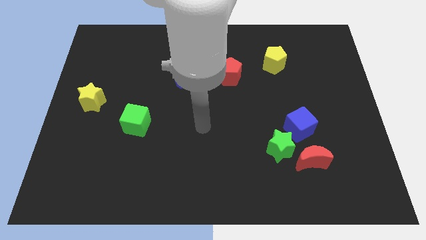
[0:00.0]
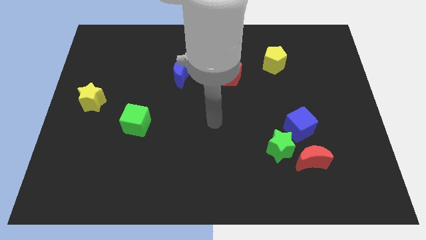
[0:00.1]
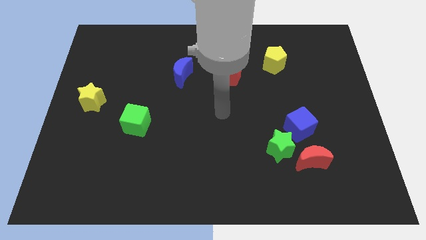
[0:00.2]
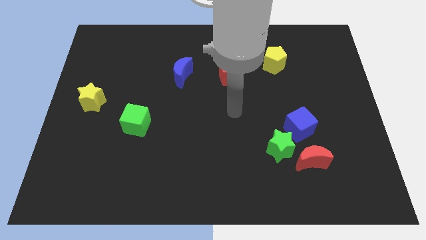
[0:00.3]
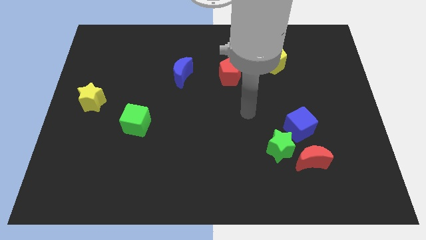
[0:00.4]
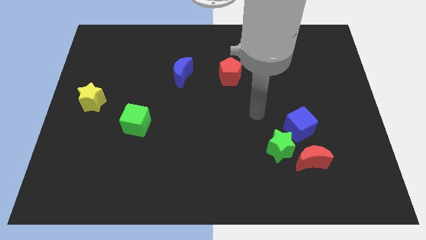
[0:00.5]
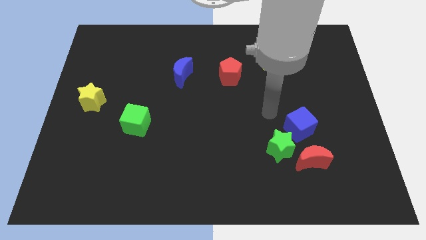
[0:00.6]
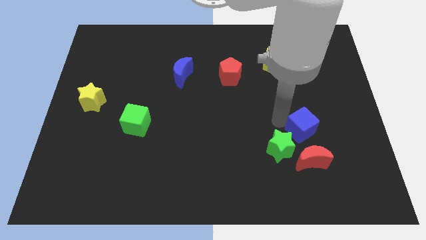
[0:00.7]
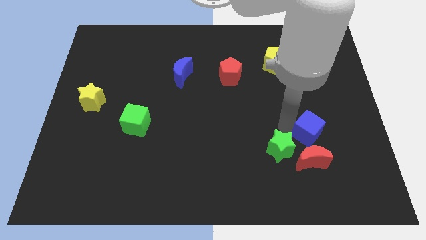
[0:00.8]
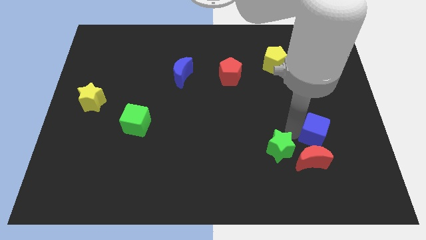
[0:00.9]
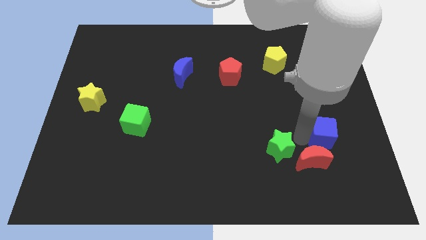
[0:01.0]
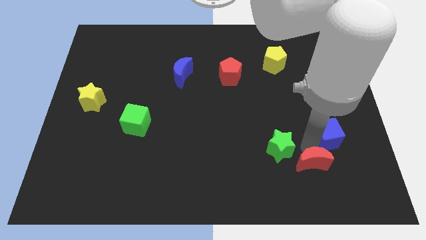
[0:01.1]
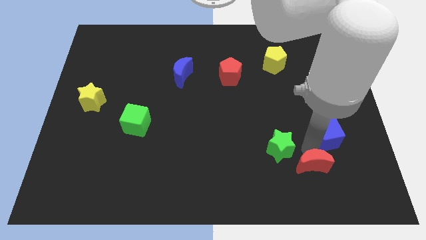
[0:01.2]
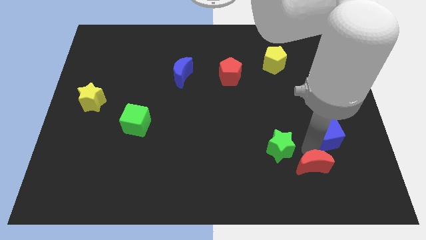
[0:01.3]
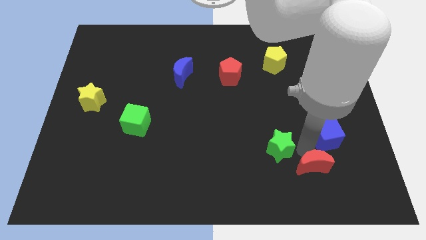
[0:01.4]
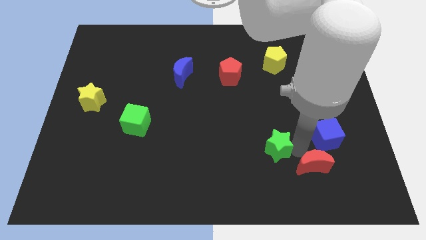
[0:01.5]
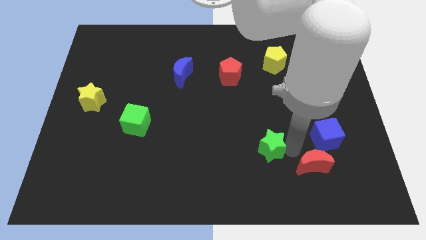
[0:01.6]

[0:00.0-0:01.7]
separate the green star from the red moon and blue cube

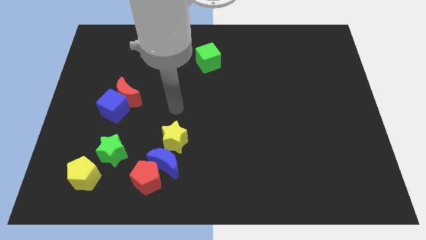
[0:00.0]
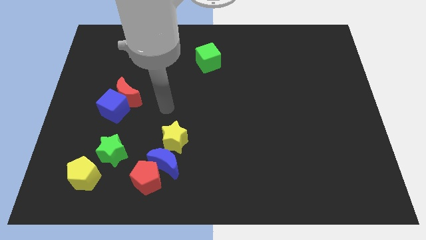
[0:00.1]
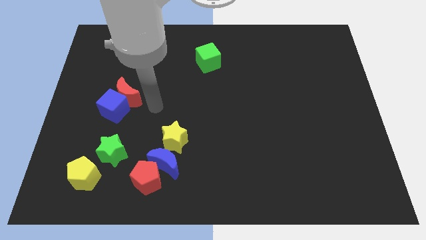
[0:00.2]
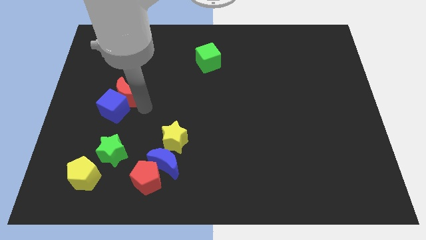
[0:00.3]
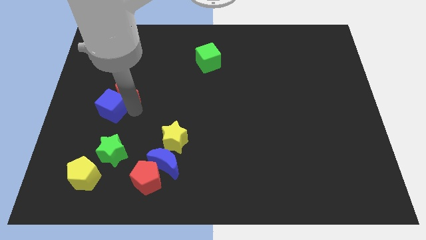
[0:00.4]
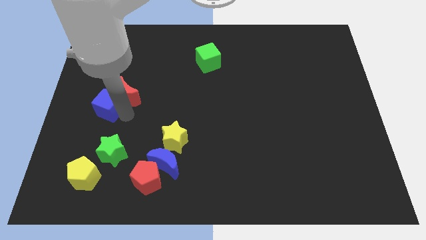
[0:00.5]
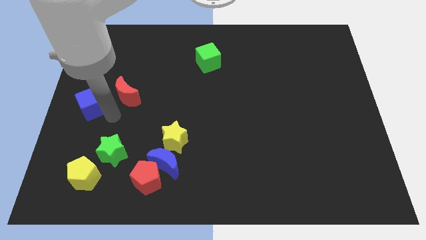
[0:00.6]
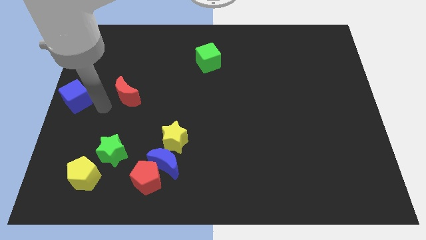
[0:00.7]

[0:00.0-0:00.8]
separate the red moon from the blue cube

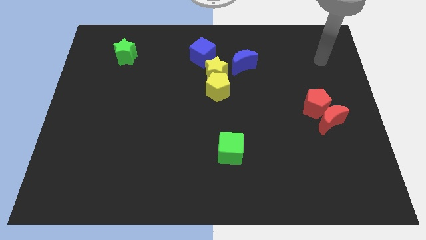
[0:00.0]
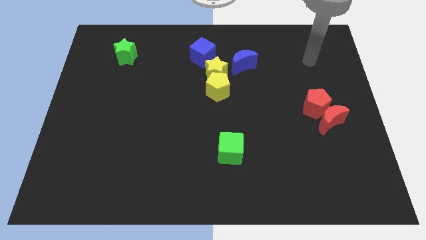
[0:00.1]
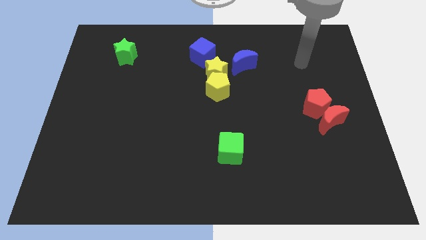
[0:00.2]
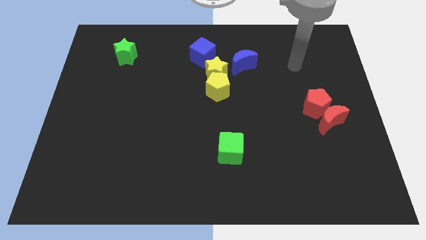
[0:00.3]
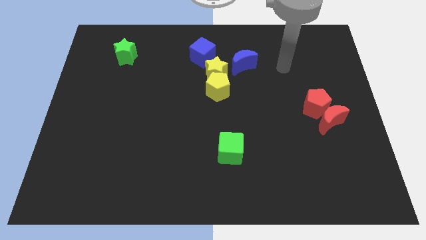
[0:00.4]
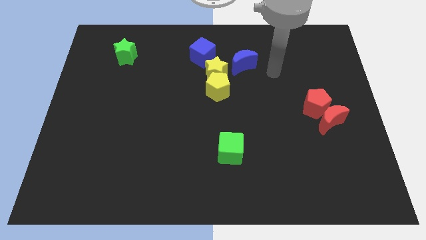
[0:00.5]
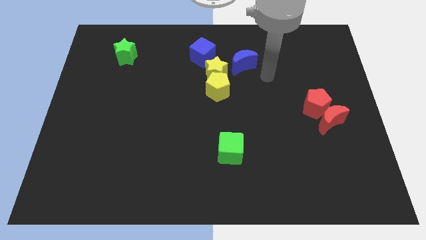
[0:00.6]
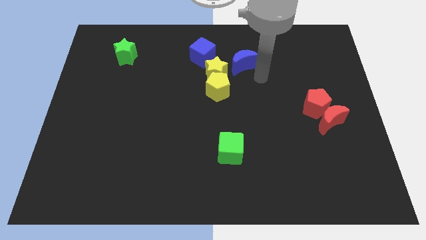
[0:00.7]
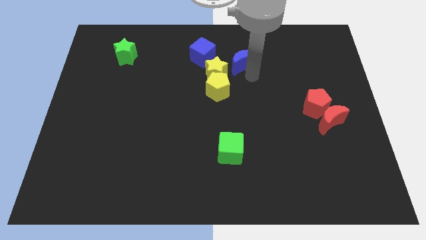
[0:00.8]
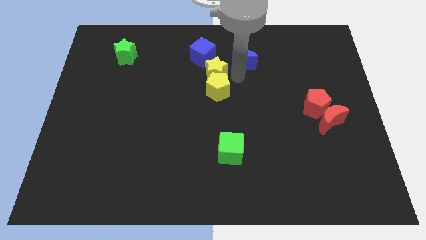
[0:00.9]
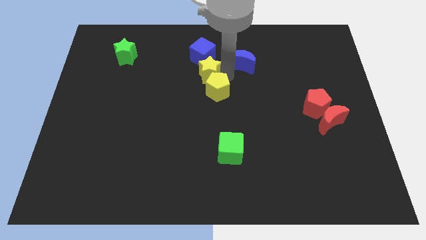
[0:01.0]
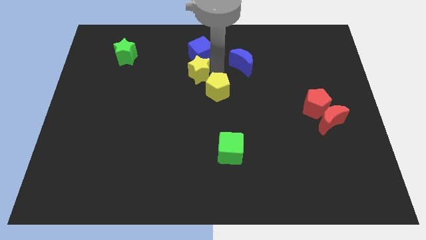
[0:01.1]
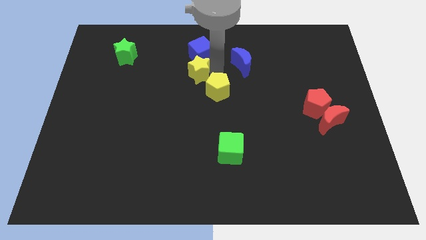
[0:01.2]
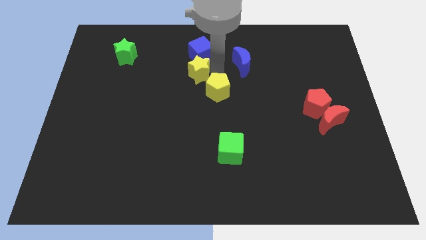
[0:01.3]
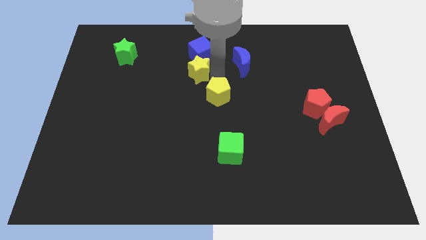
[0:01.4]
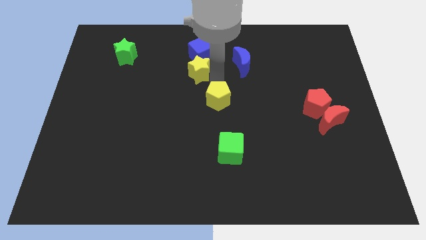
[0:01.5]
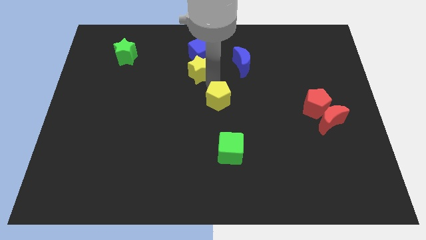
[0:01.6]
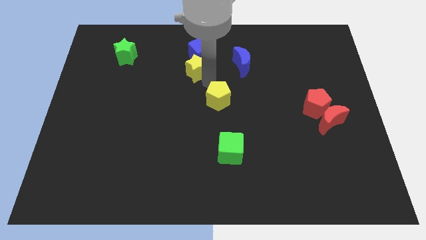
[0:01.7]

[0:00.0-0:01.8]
move the yellow pentagon away from the yellow star

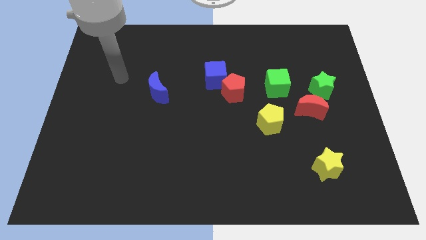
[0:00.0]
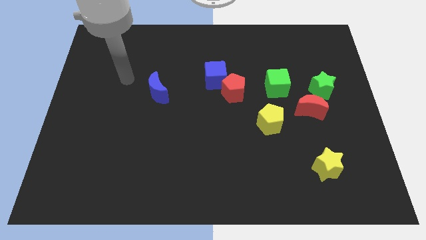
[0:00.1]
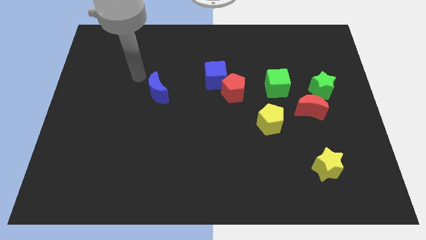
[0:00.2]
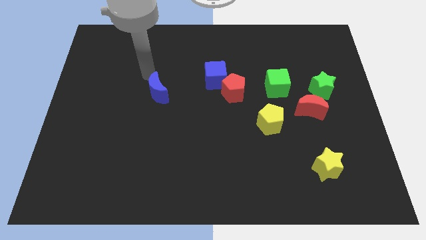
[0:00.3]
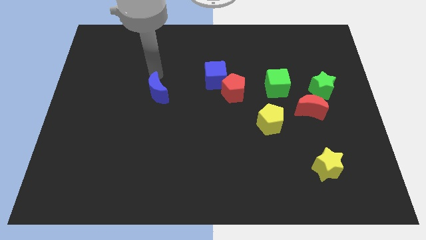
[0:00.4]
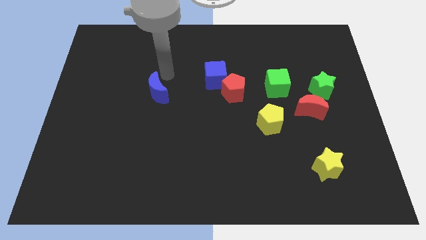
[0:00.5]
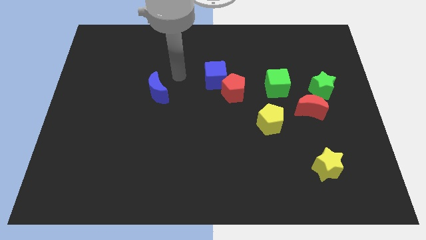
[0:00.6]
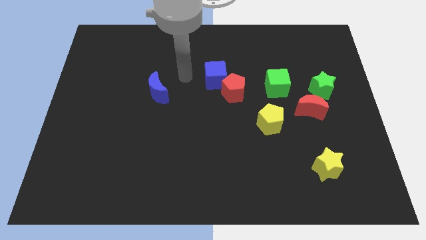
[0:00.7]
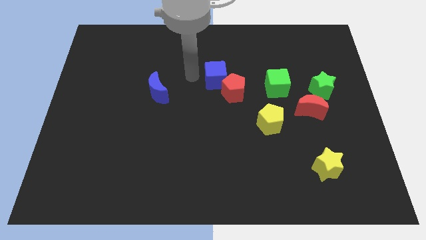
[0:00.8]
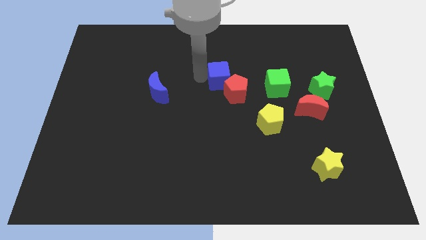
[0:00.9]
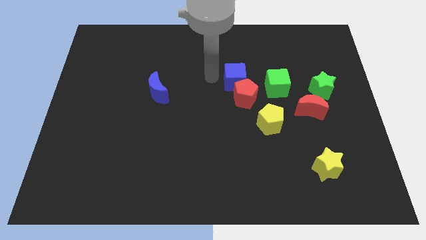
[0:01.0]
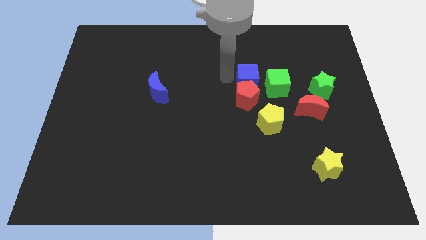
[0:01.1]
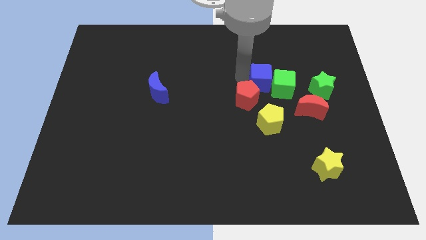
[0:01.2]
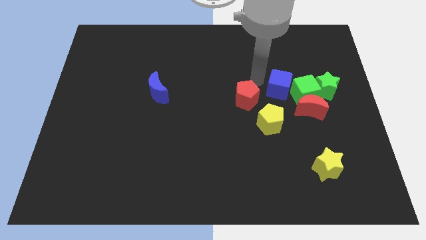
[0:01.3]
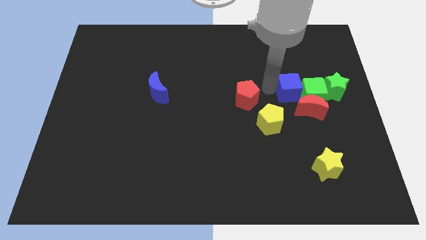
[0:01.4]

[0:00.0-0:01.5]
separate the red pentagon from the blue cube

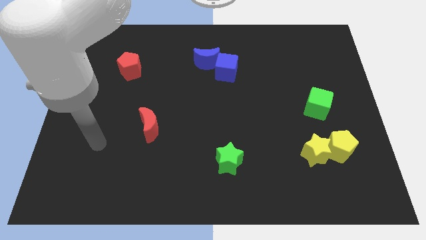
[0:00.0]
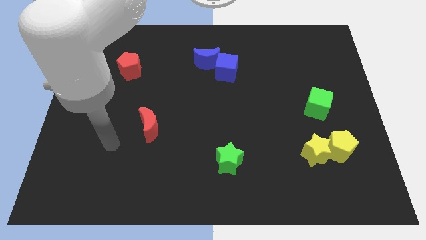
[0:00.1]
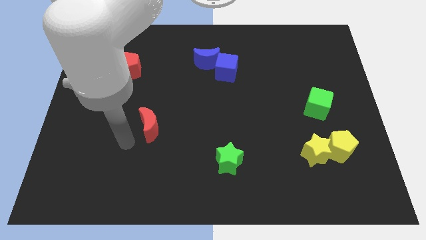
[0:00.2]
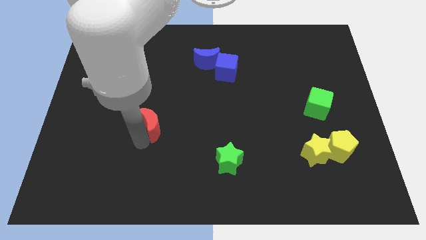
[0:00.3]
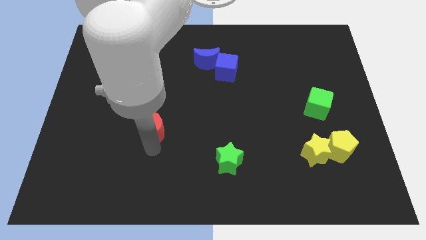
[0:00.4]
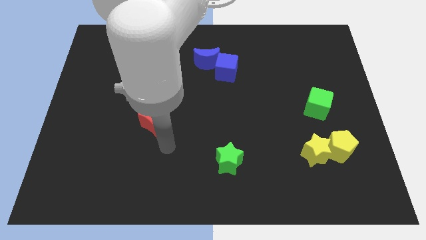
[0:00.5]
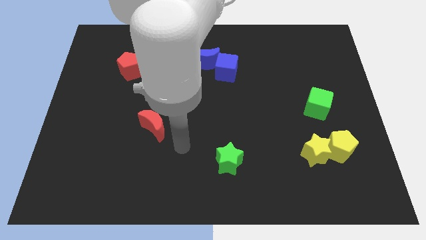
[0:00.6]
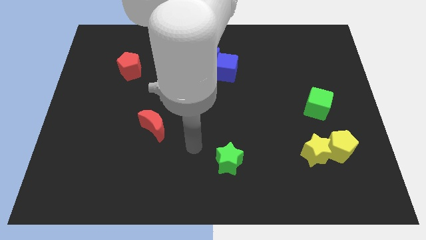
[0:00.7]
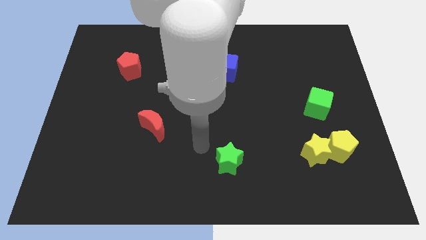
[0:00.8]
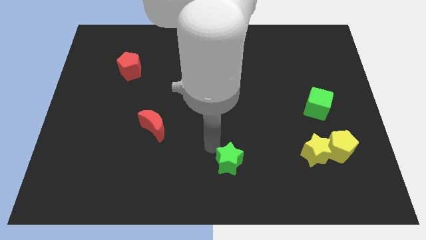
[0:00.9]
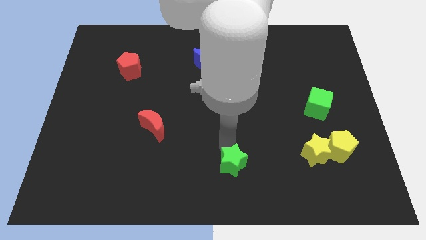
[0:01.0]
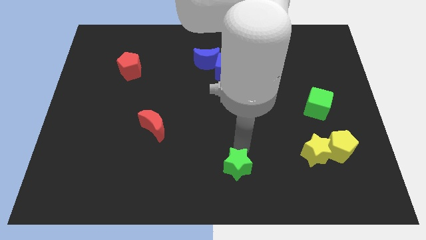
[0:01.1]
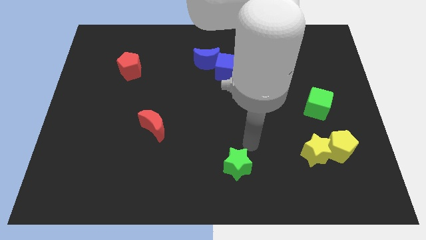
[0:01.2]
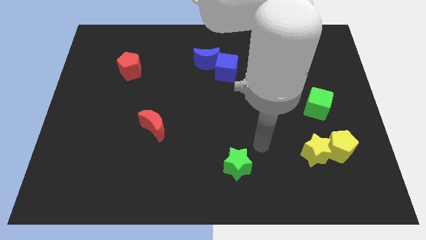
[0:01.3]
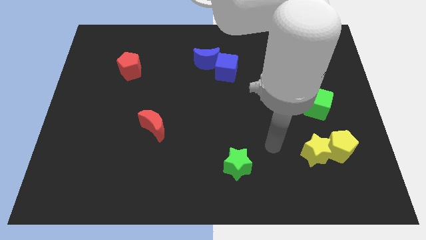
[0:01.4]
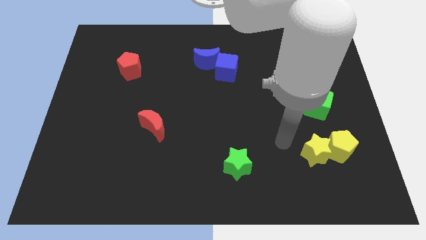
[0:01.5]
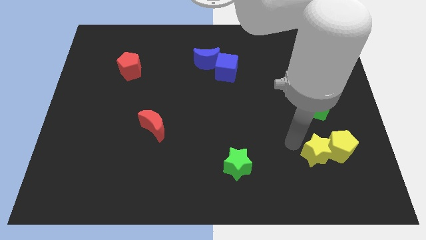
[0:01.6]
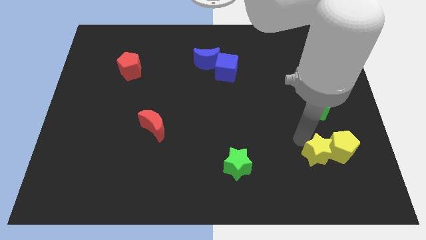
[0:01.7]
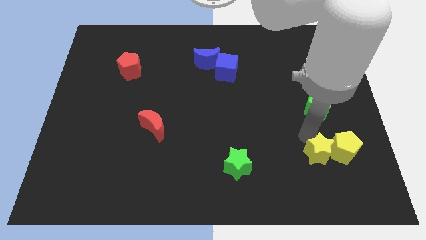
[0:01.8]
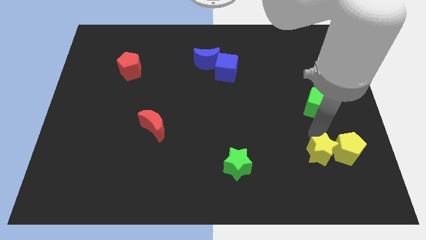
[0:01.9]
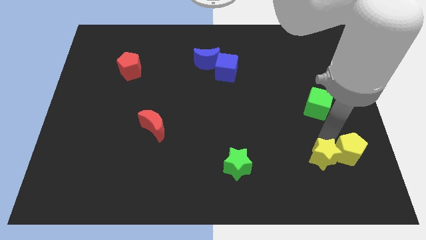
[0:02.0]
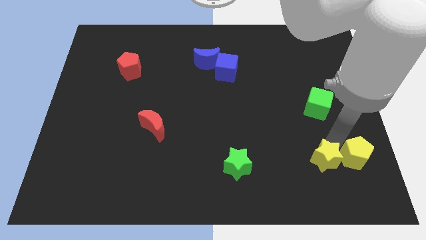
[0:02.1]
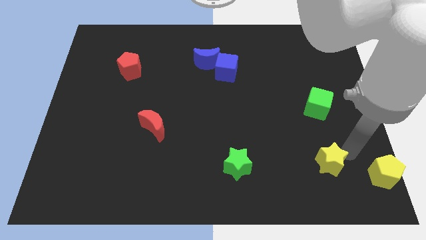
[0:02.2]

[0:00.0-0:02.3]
pull the yellow star apart from the yellow pentagon

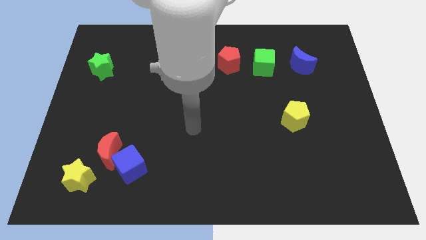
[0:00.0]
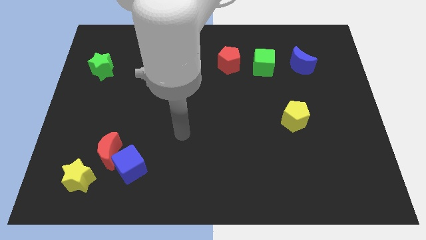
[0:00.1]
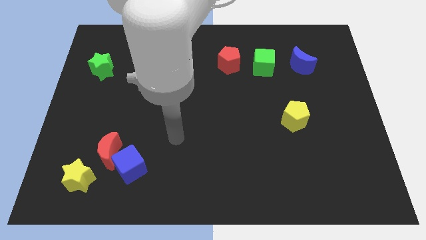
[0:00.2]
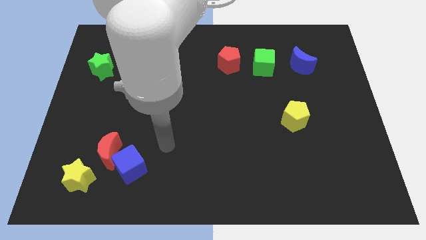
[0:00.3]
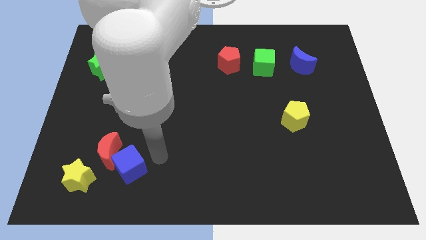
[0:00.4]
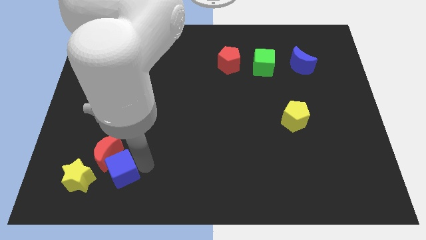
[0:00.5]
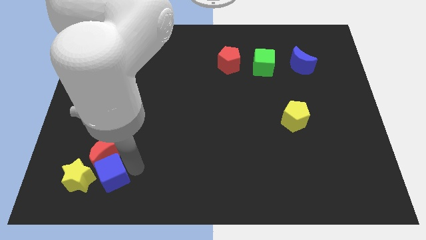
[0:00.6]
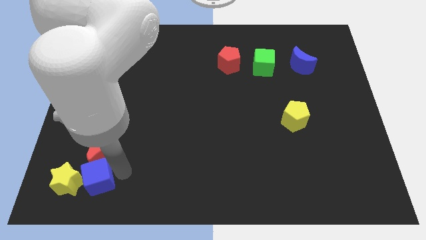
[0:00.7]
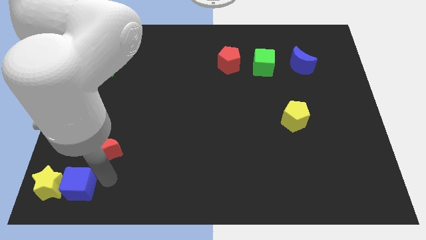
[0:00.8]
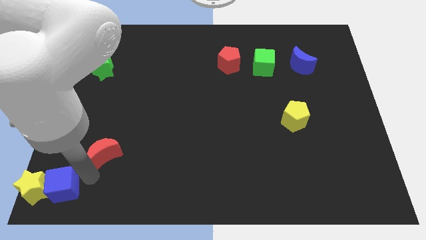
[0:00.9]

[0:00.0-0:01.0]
move the red moon away from the blue cube and yellow star

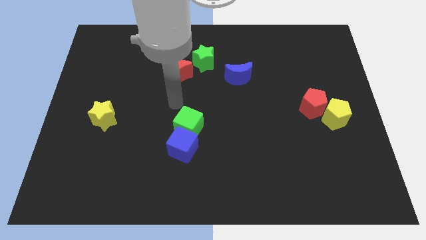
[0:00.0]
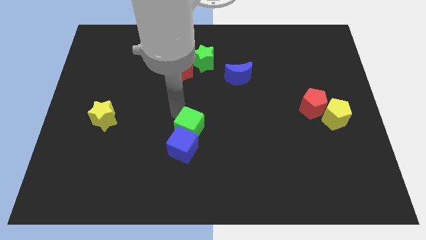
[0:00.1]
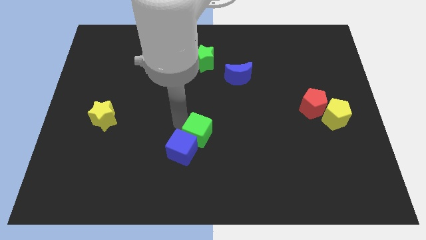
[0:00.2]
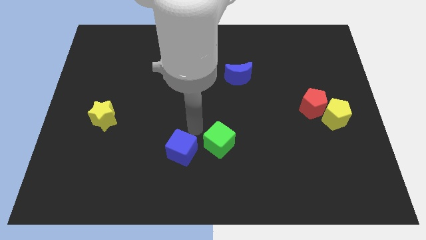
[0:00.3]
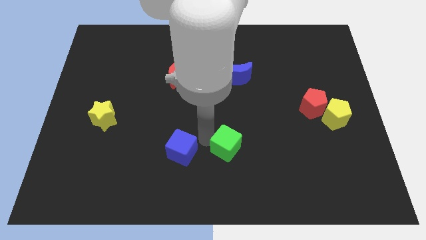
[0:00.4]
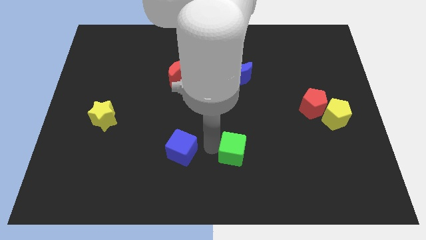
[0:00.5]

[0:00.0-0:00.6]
pull the blue cube apart from the green cube
